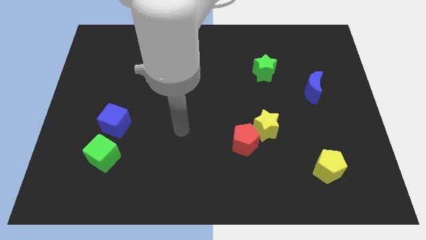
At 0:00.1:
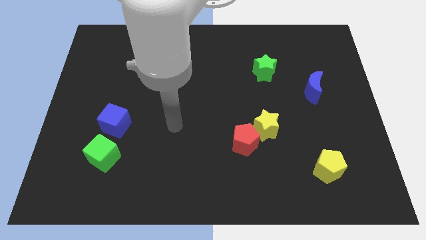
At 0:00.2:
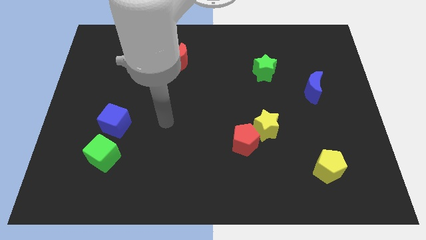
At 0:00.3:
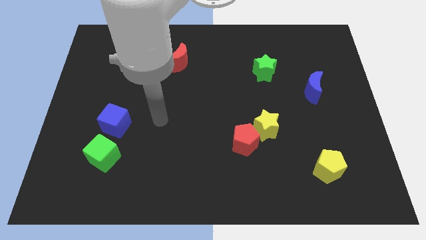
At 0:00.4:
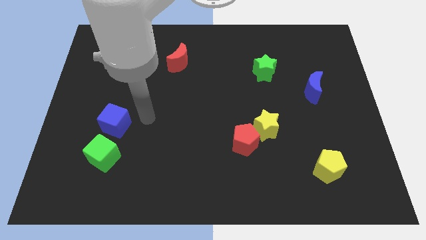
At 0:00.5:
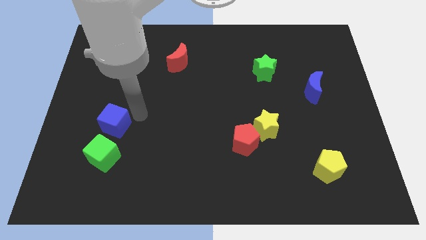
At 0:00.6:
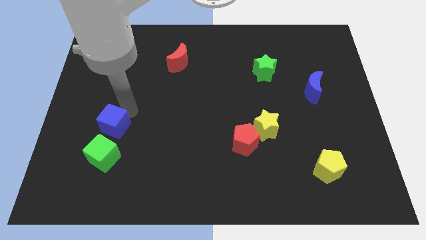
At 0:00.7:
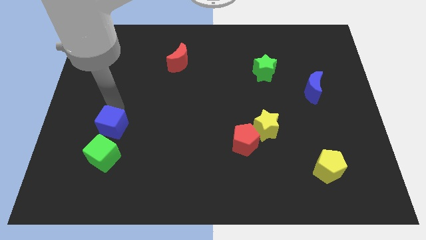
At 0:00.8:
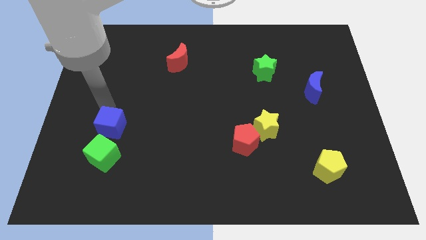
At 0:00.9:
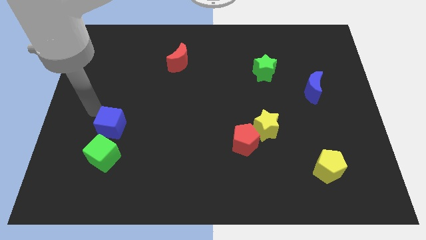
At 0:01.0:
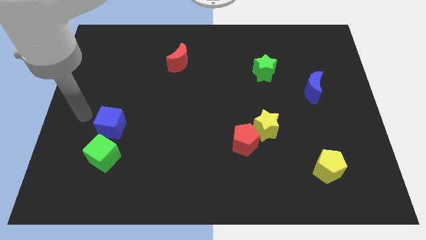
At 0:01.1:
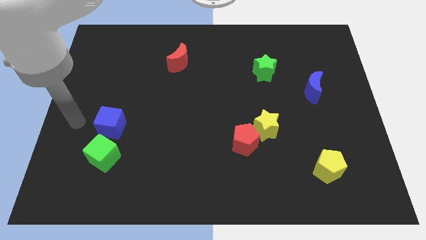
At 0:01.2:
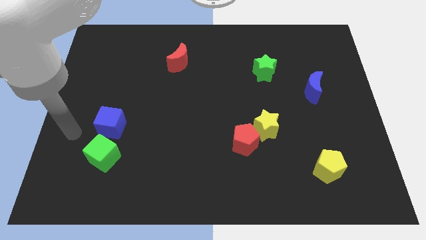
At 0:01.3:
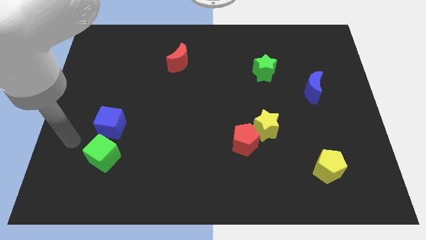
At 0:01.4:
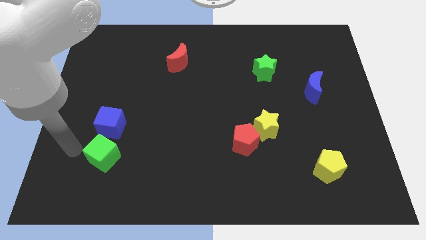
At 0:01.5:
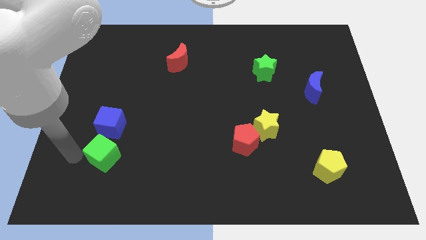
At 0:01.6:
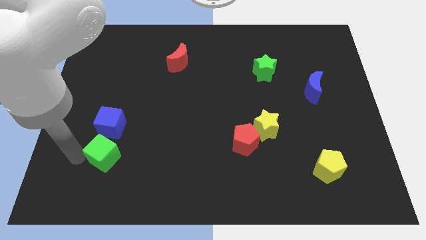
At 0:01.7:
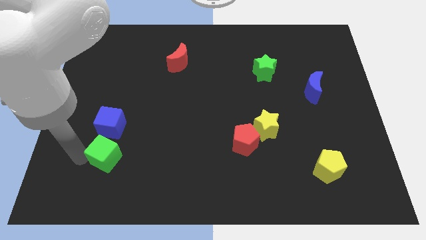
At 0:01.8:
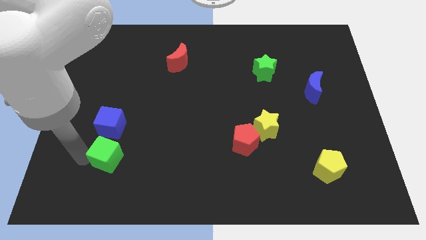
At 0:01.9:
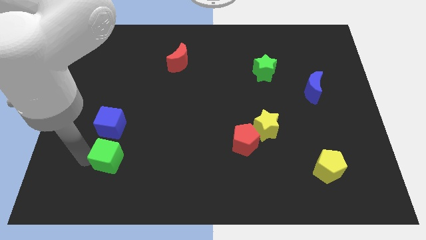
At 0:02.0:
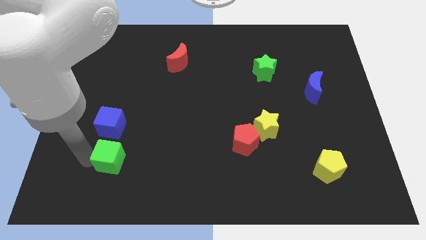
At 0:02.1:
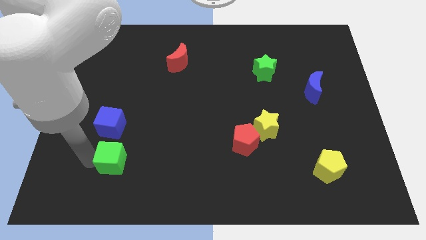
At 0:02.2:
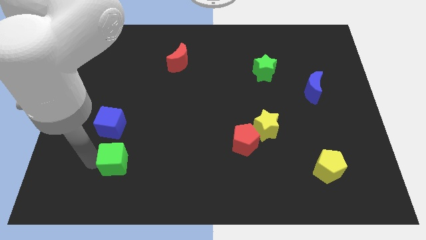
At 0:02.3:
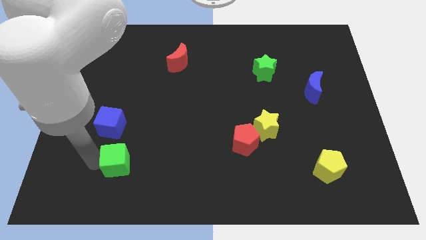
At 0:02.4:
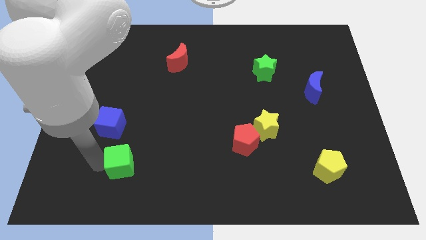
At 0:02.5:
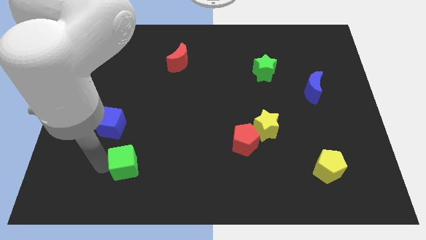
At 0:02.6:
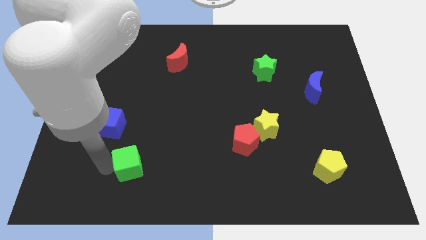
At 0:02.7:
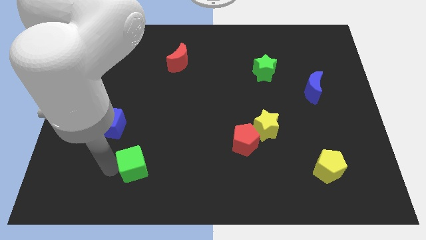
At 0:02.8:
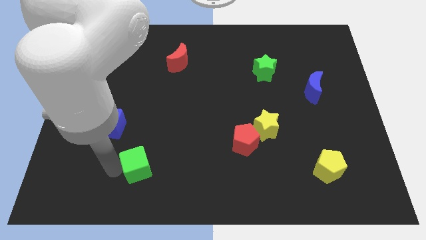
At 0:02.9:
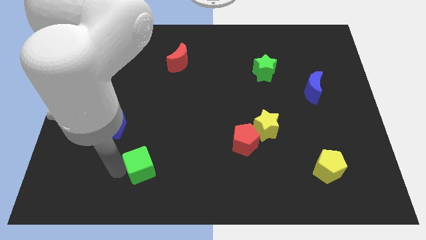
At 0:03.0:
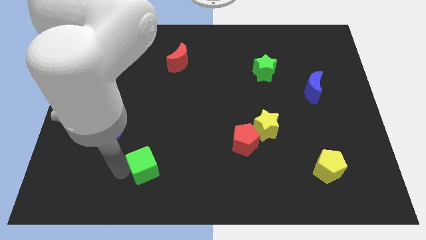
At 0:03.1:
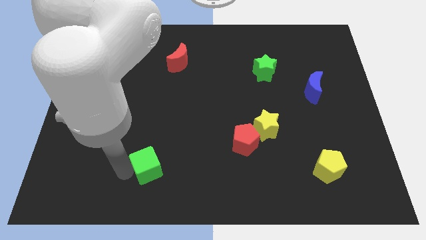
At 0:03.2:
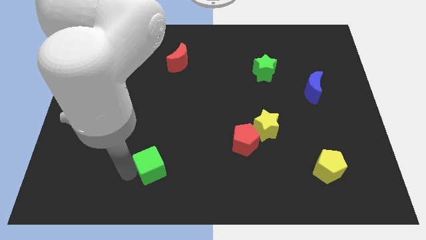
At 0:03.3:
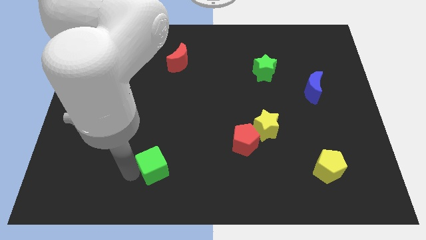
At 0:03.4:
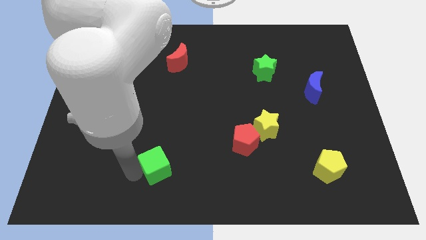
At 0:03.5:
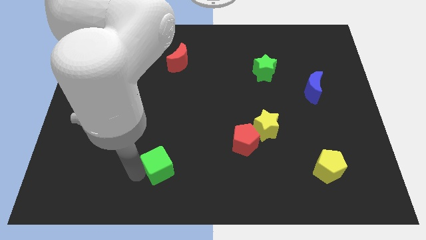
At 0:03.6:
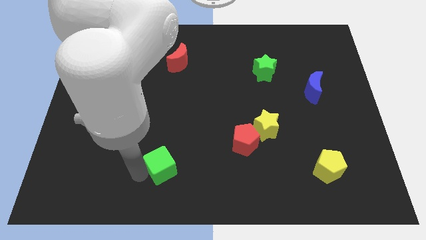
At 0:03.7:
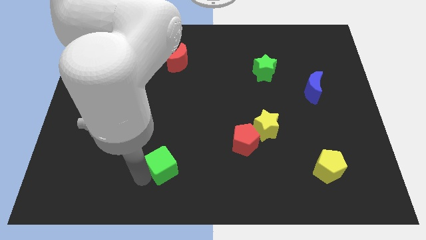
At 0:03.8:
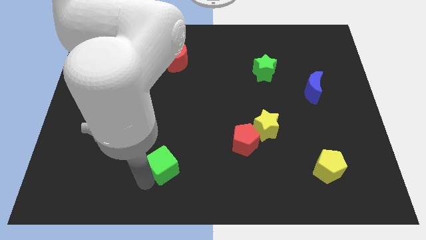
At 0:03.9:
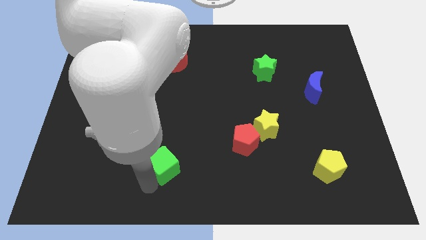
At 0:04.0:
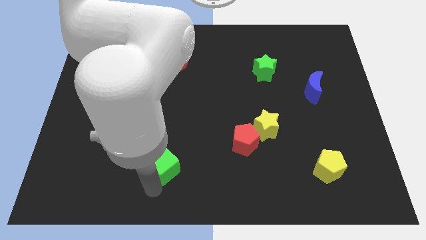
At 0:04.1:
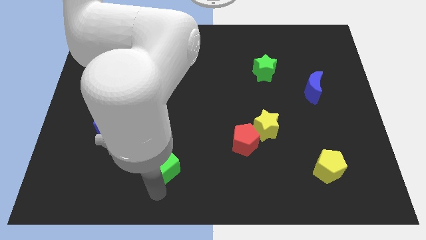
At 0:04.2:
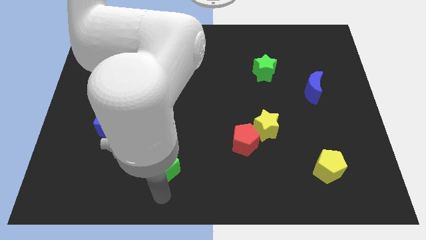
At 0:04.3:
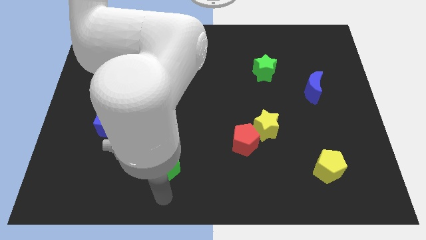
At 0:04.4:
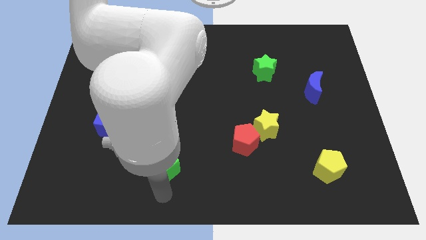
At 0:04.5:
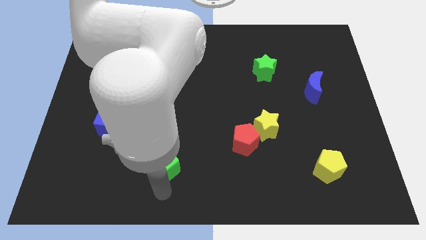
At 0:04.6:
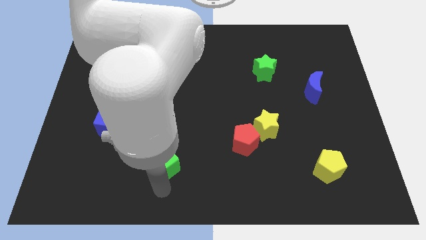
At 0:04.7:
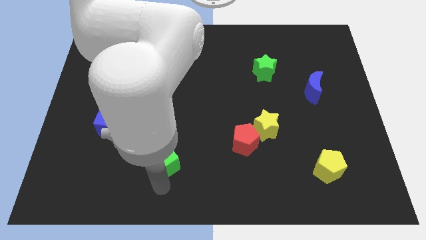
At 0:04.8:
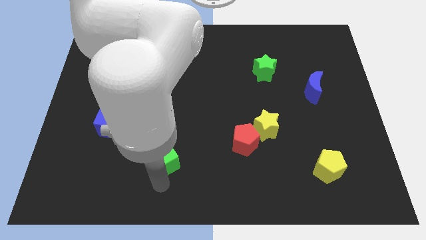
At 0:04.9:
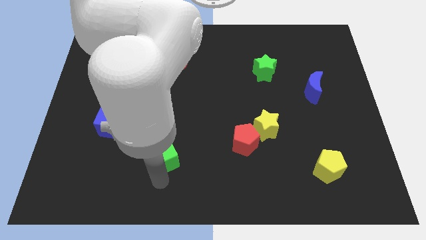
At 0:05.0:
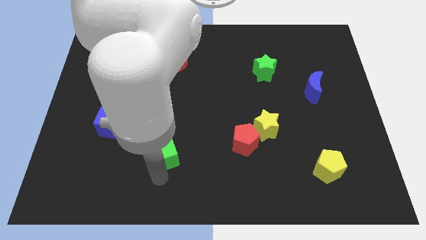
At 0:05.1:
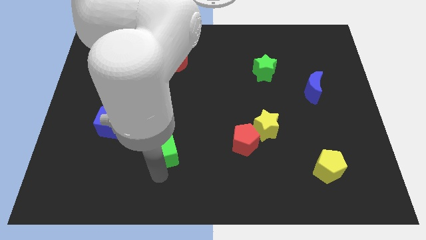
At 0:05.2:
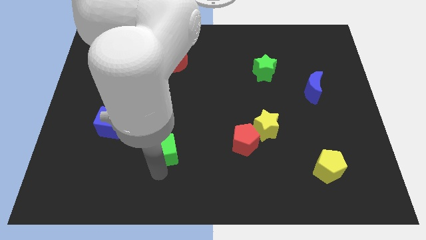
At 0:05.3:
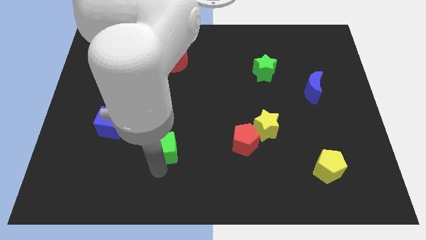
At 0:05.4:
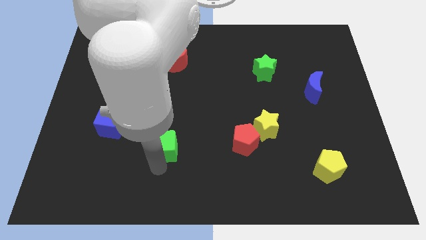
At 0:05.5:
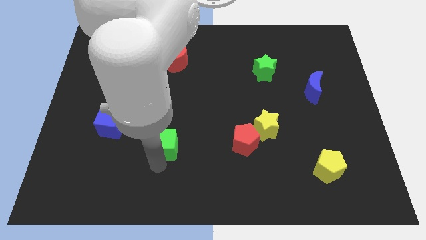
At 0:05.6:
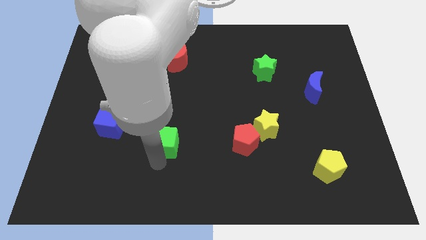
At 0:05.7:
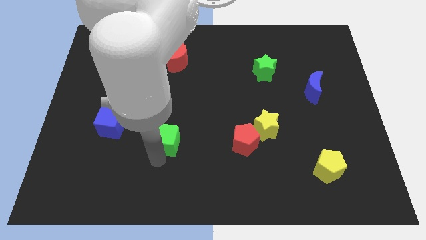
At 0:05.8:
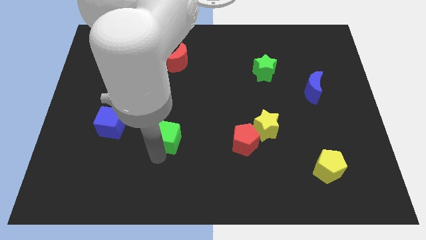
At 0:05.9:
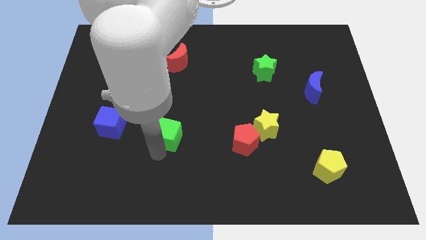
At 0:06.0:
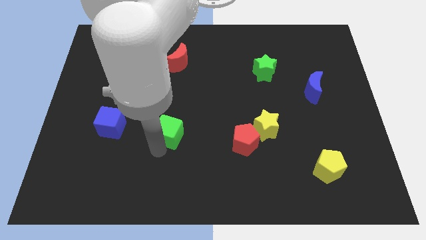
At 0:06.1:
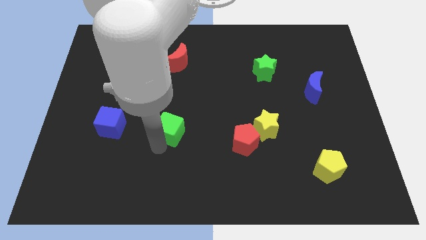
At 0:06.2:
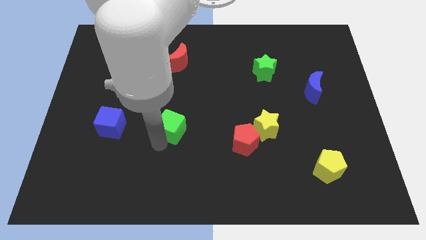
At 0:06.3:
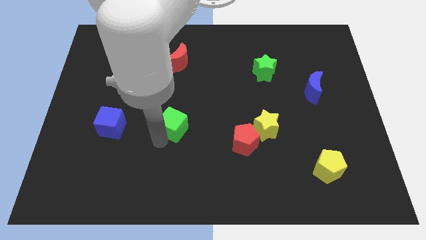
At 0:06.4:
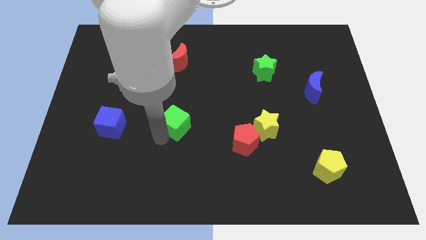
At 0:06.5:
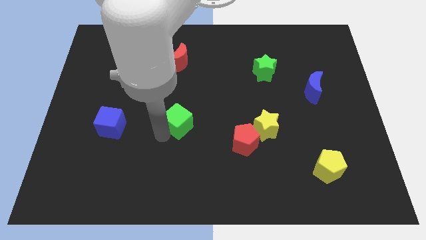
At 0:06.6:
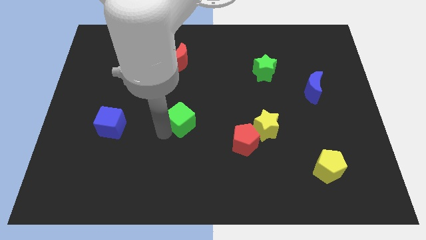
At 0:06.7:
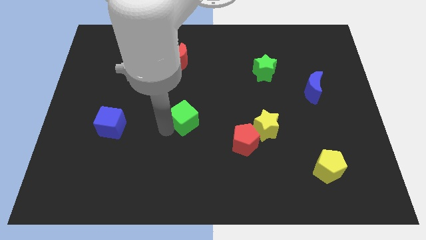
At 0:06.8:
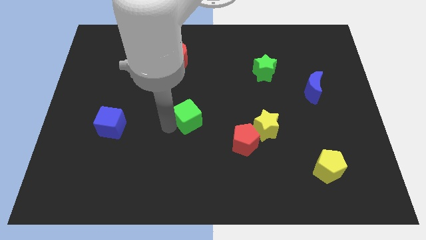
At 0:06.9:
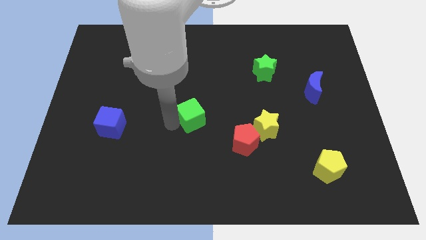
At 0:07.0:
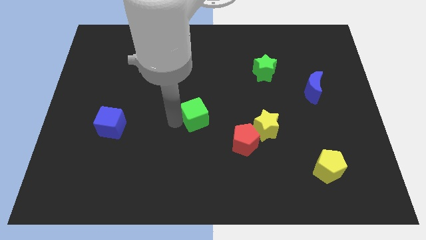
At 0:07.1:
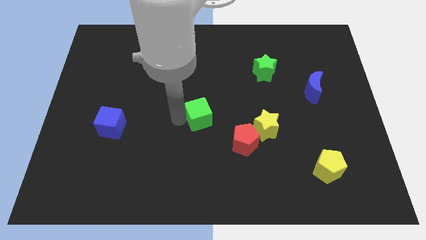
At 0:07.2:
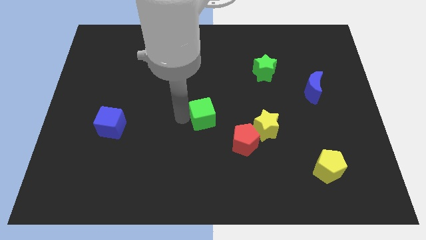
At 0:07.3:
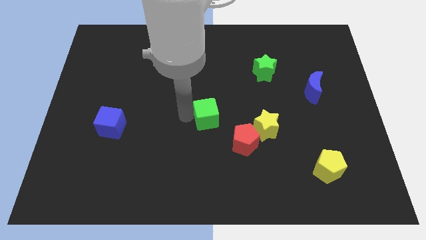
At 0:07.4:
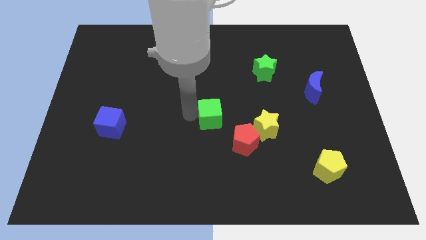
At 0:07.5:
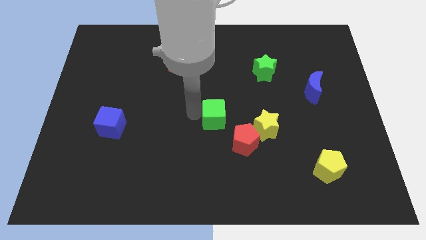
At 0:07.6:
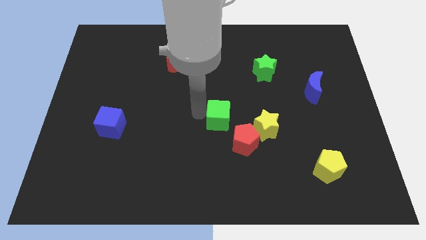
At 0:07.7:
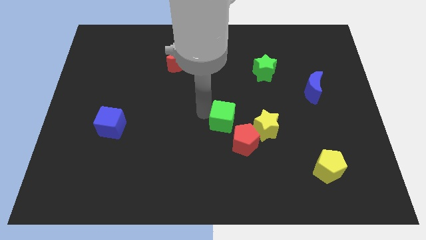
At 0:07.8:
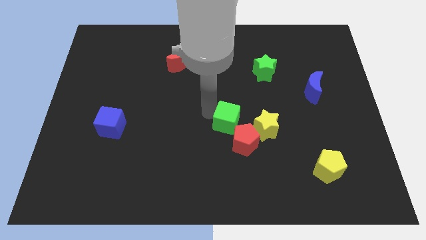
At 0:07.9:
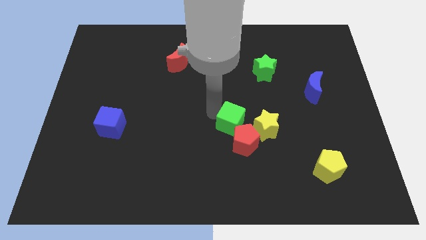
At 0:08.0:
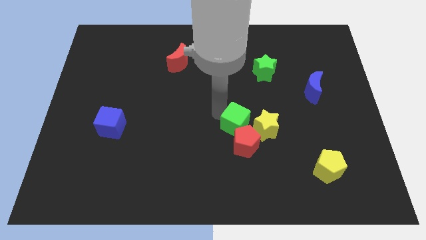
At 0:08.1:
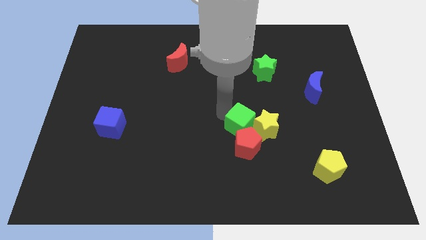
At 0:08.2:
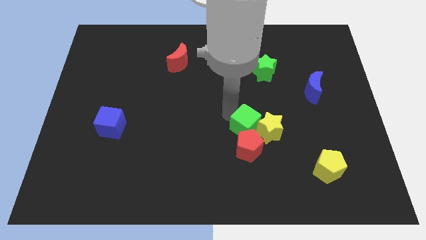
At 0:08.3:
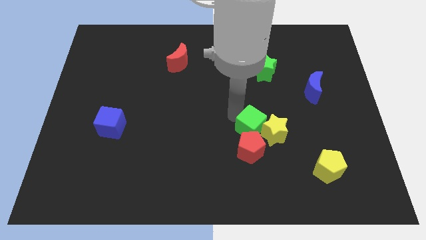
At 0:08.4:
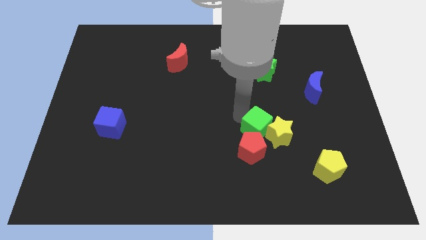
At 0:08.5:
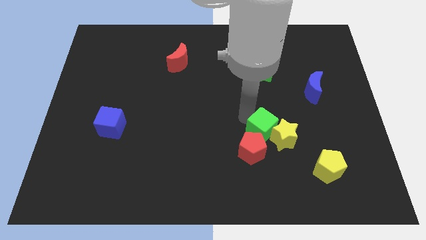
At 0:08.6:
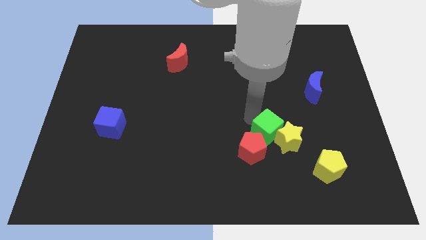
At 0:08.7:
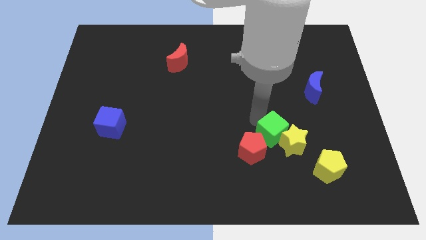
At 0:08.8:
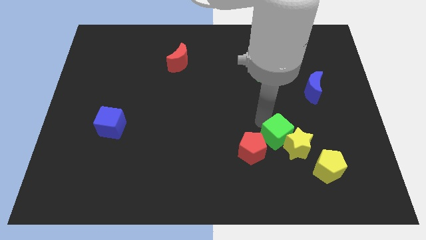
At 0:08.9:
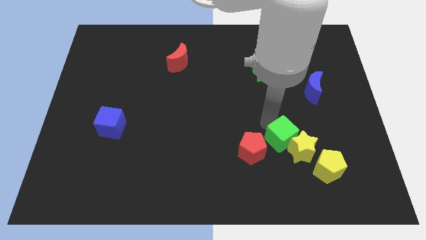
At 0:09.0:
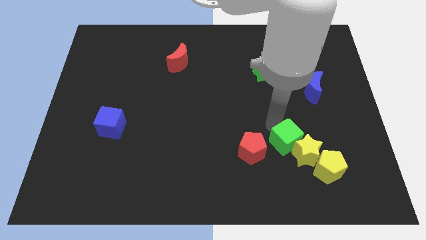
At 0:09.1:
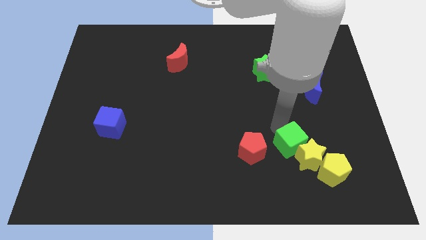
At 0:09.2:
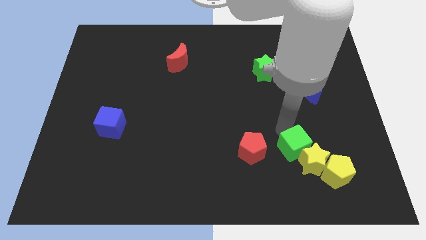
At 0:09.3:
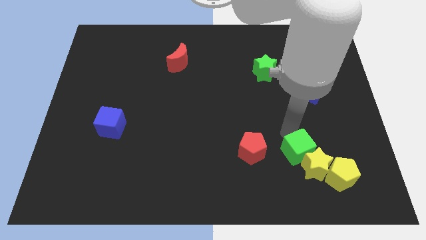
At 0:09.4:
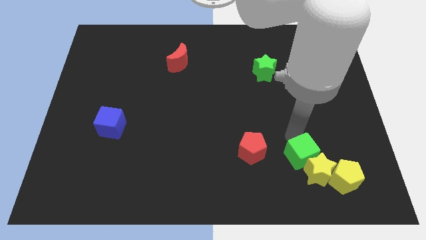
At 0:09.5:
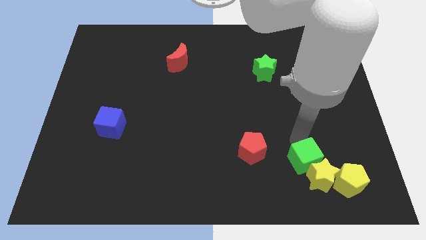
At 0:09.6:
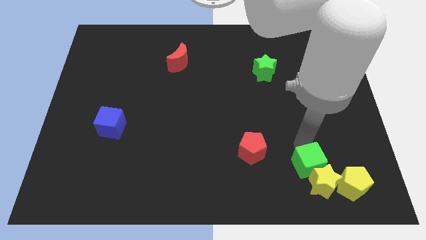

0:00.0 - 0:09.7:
push the green cube to the left of the yellow pentagon
